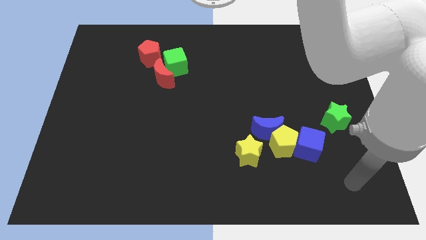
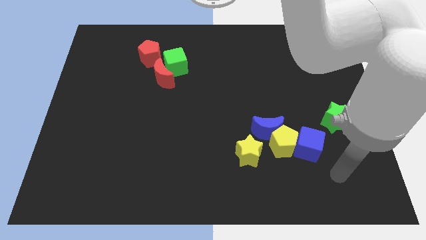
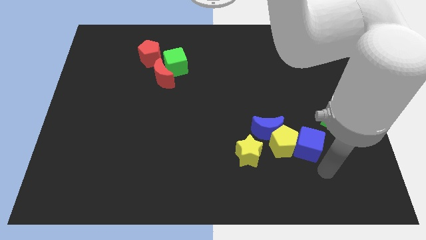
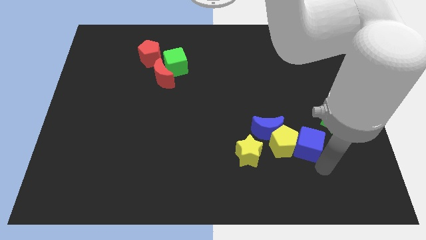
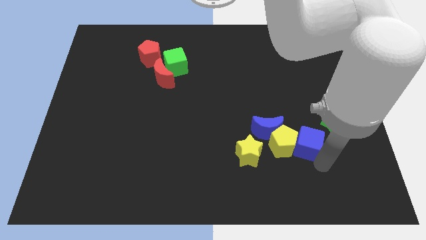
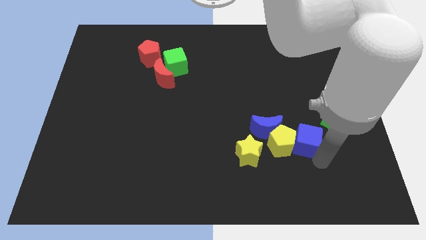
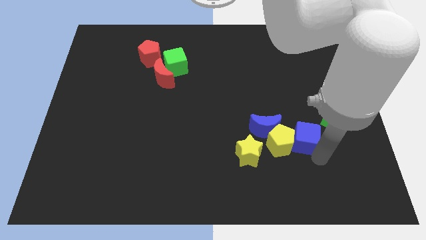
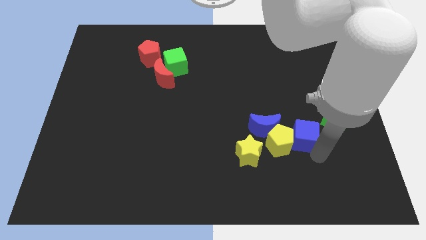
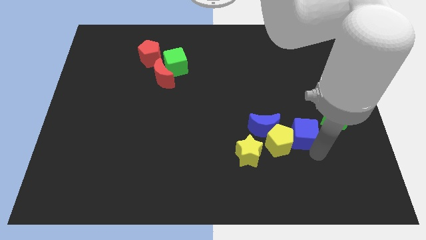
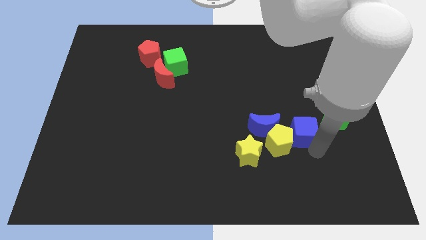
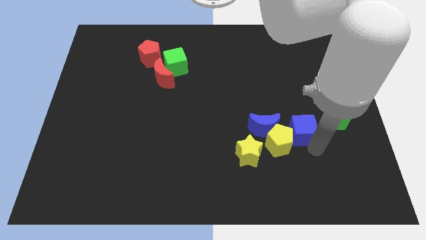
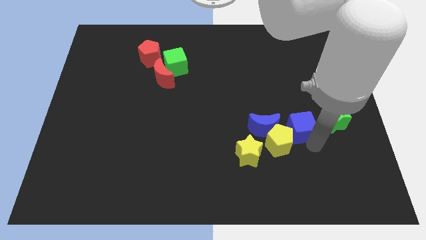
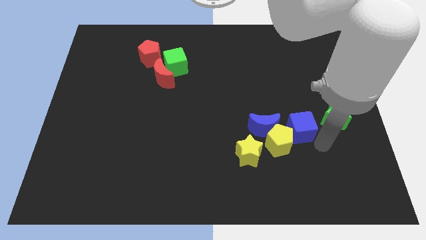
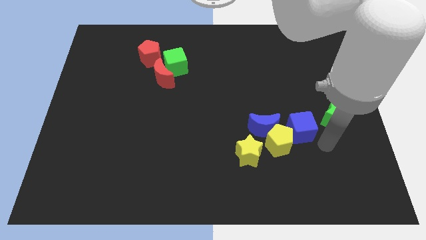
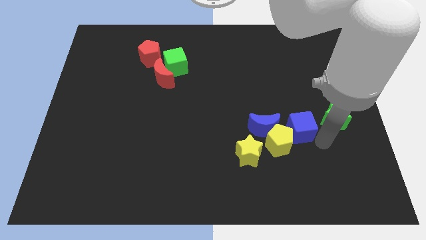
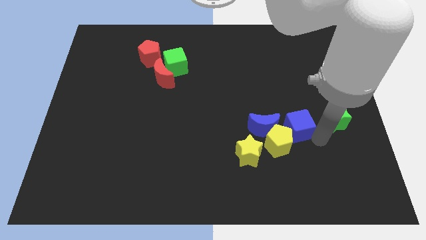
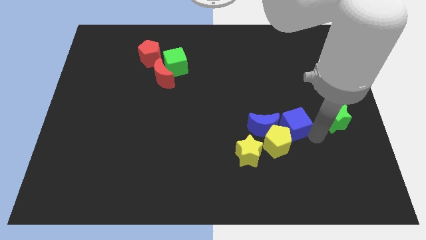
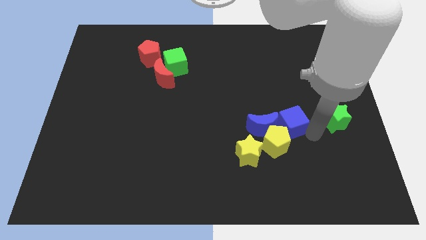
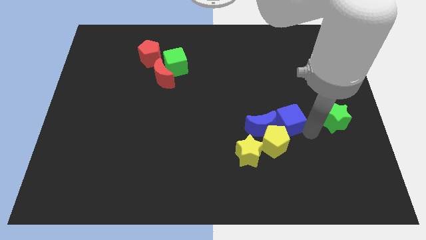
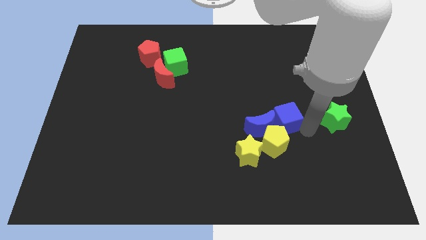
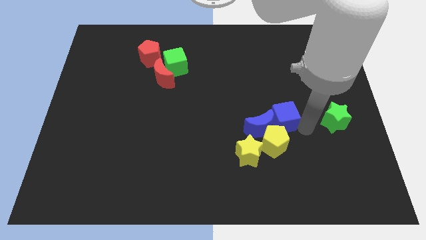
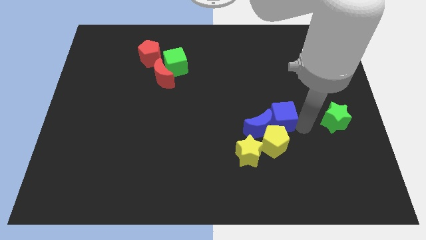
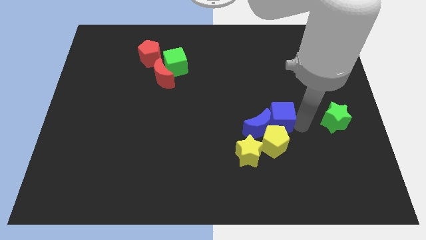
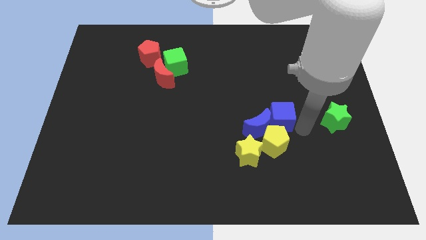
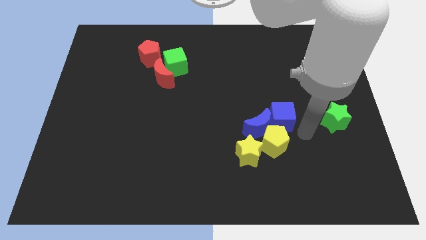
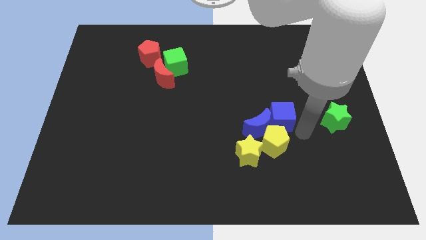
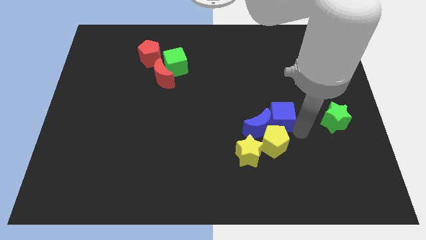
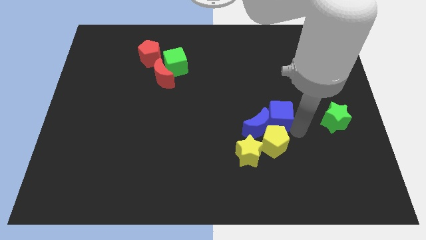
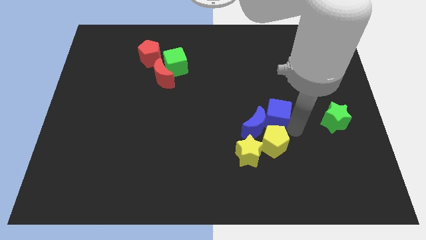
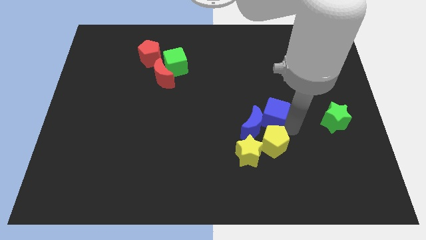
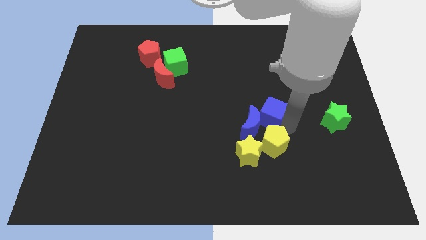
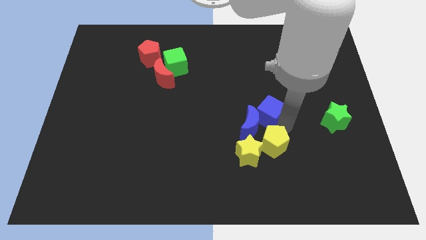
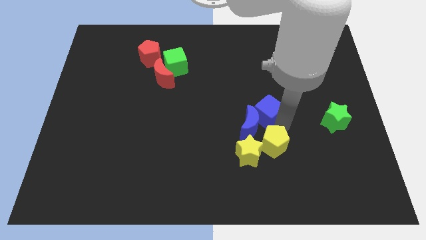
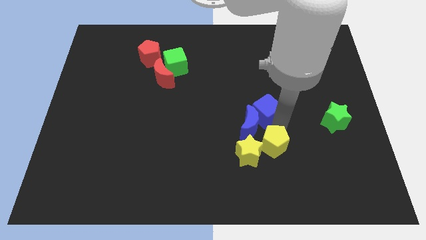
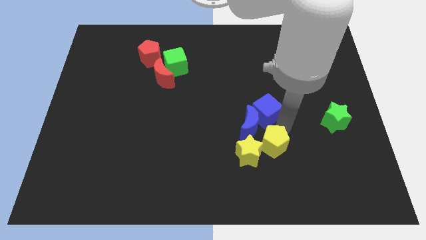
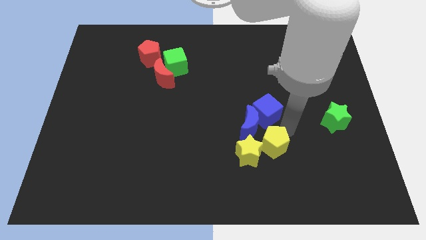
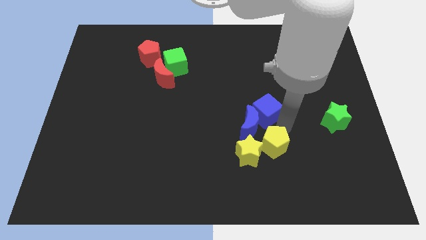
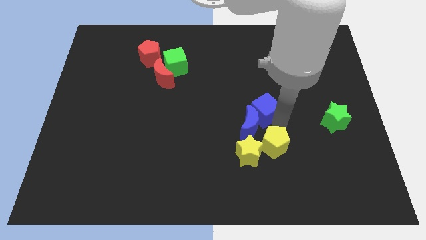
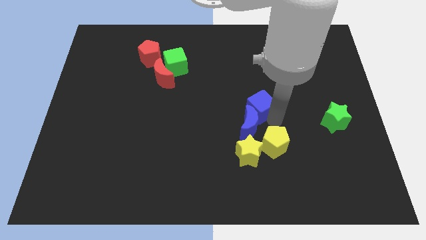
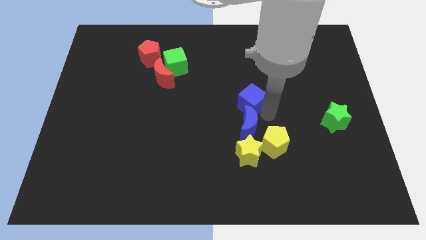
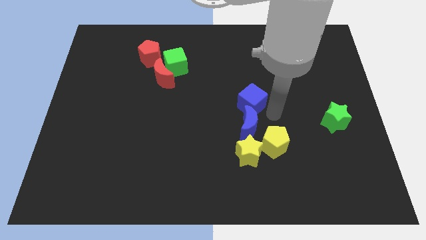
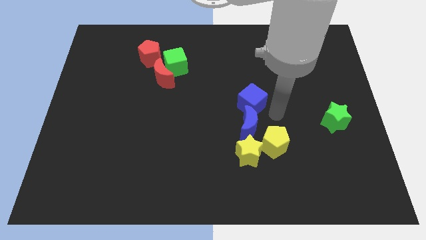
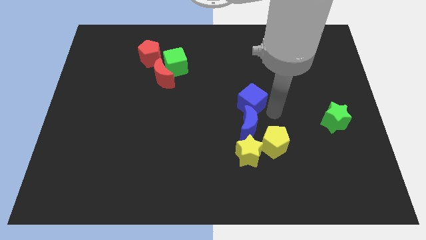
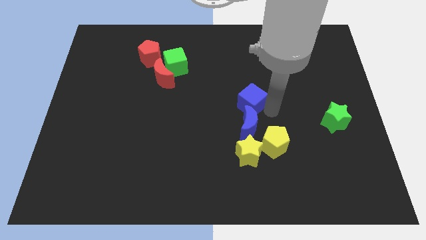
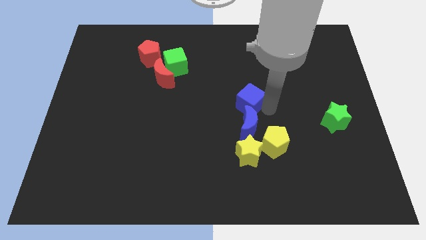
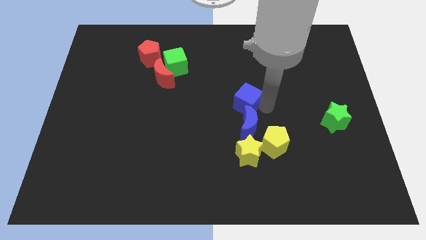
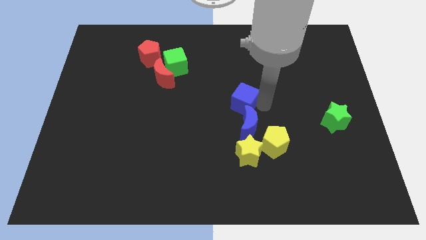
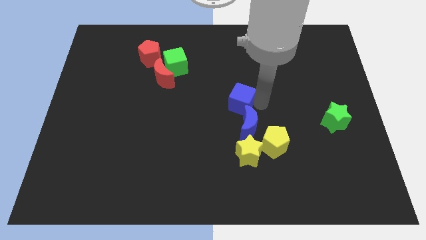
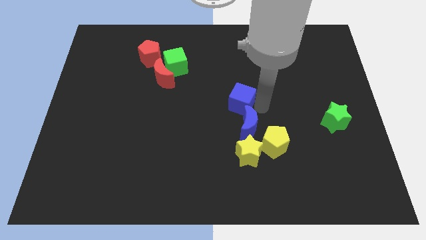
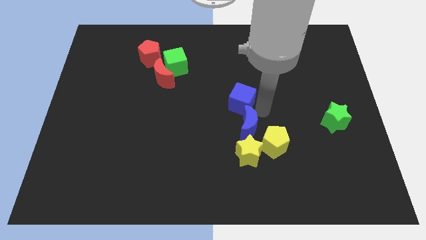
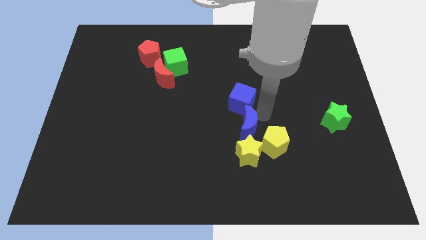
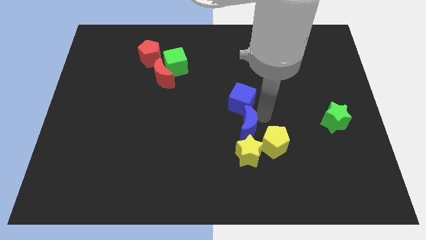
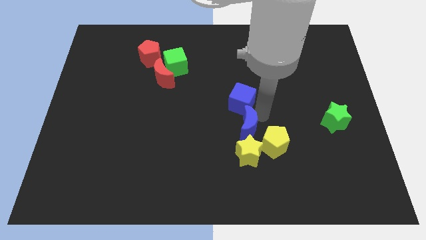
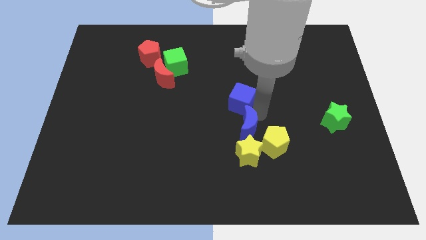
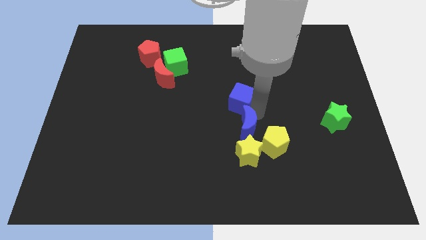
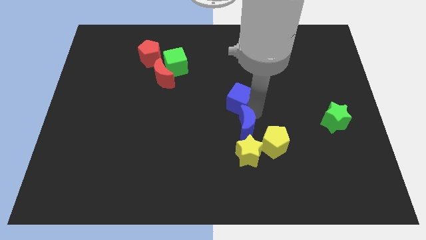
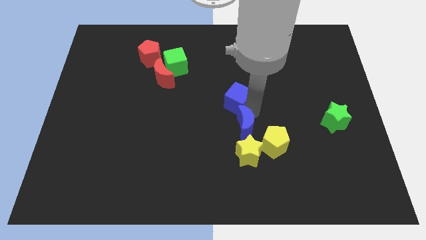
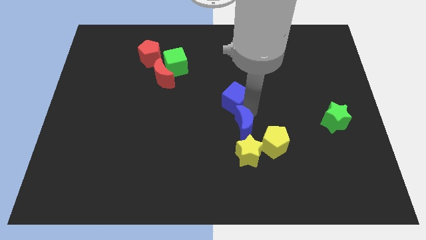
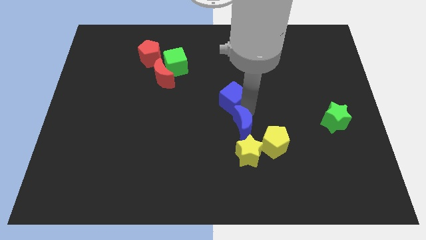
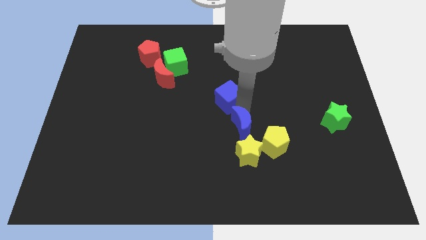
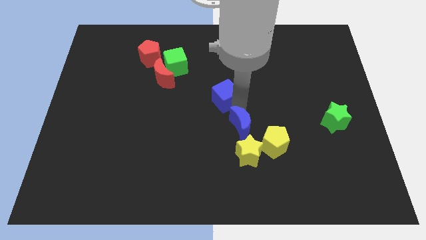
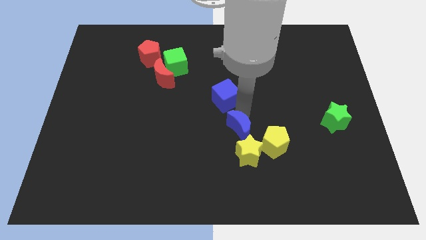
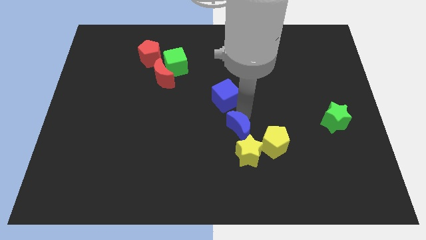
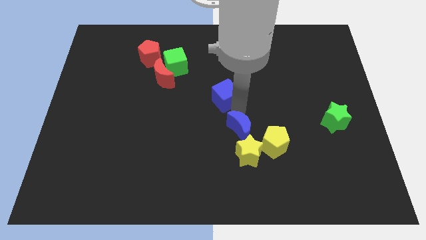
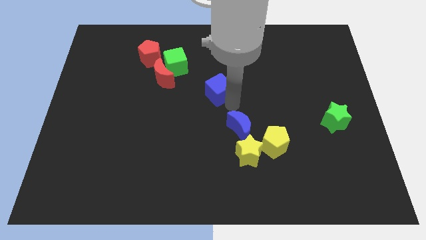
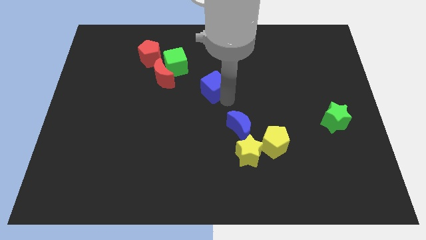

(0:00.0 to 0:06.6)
put the blue cube to the right of the red moon

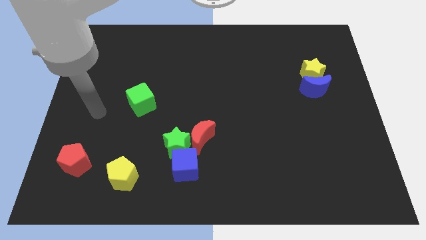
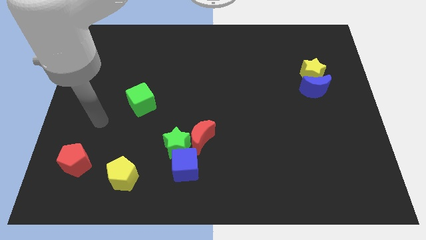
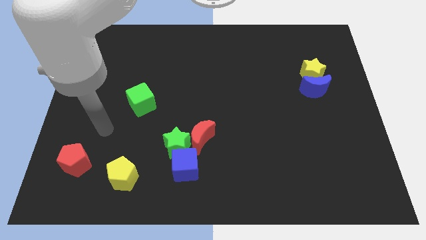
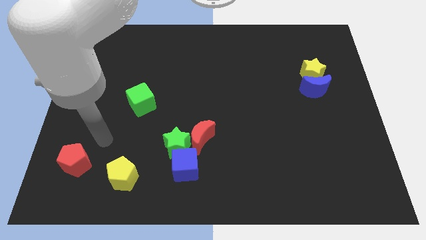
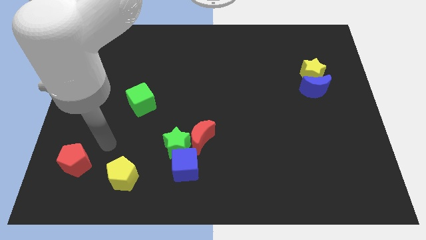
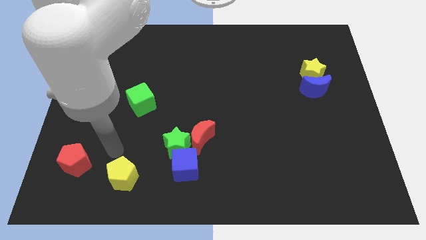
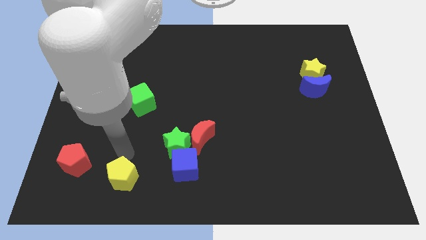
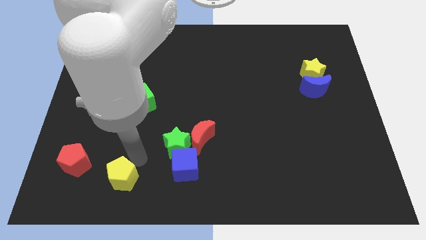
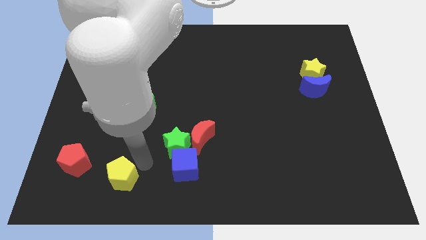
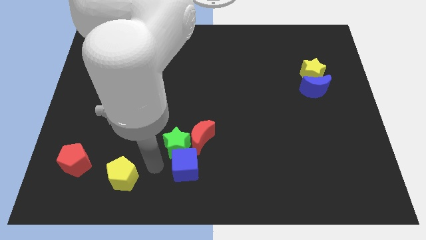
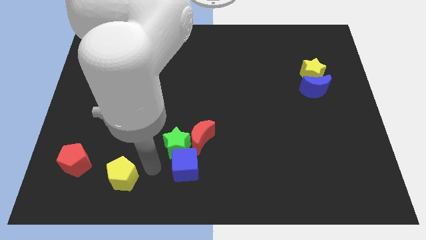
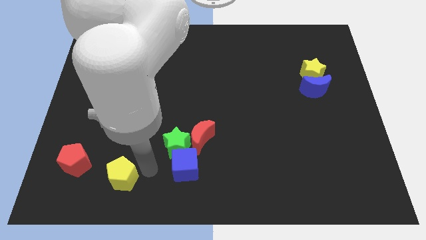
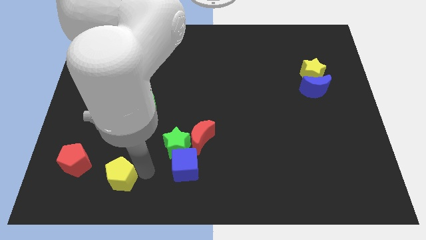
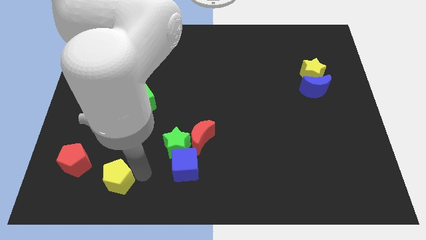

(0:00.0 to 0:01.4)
put the yellow pentagon to the bottom right of the red pentagon
